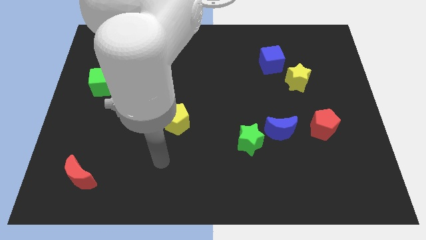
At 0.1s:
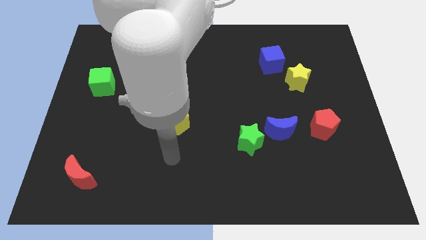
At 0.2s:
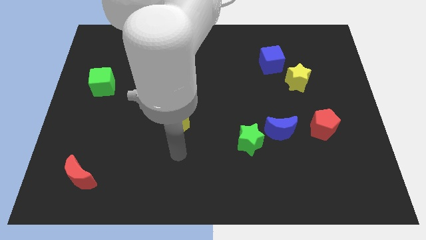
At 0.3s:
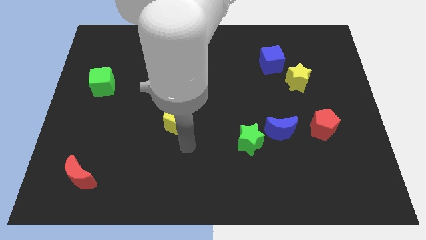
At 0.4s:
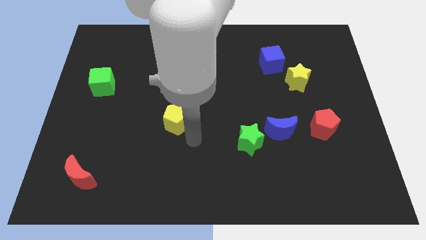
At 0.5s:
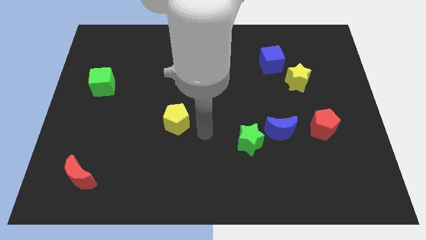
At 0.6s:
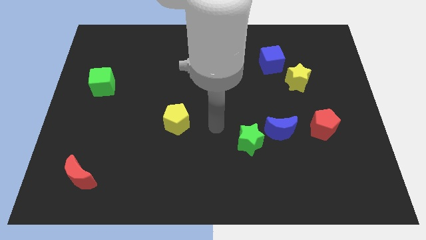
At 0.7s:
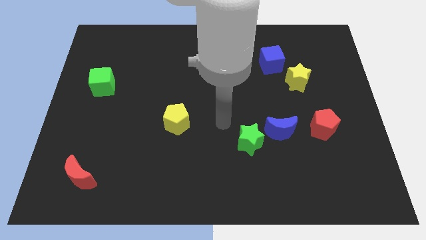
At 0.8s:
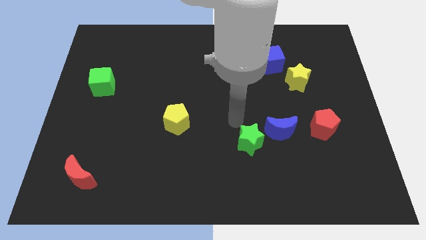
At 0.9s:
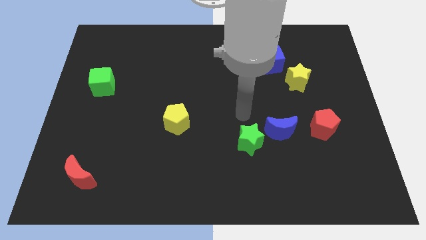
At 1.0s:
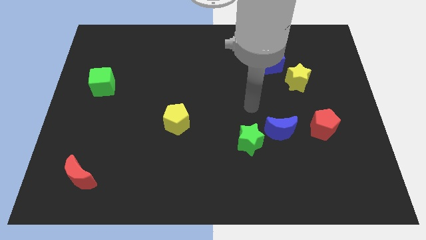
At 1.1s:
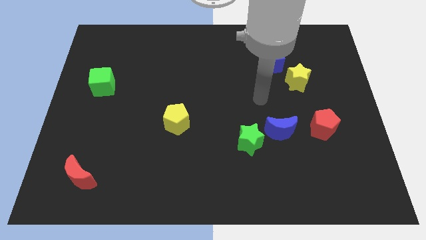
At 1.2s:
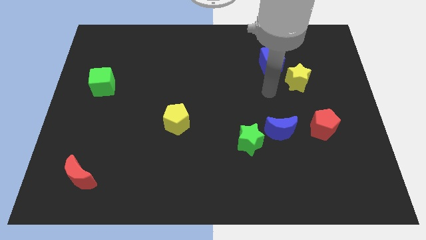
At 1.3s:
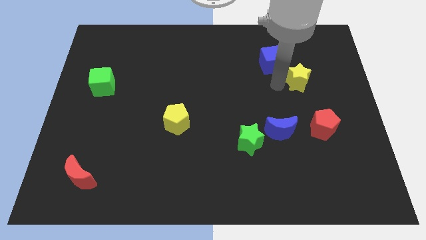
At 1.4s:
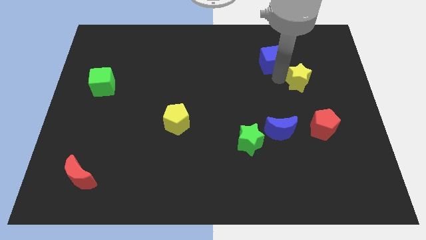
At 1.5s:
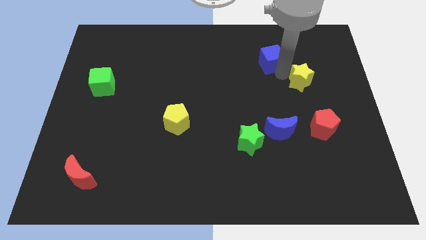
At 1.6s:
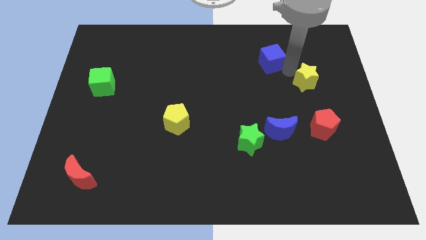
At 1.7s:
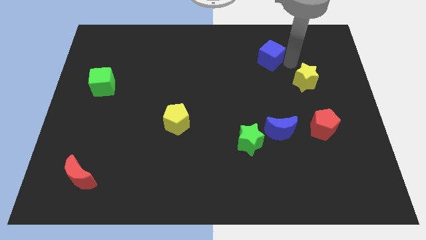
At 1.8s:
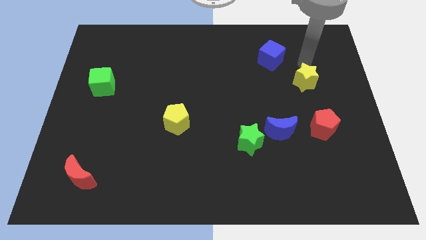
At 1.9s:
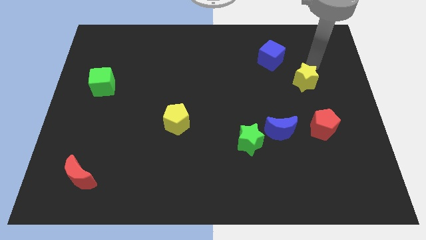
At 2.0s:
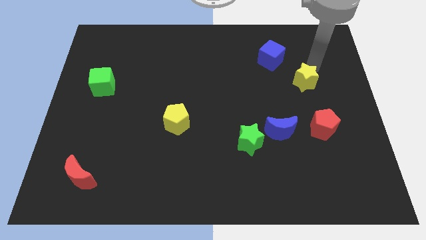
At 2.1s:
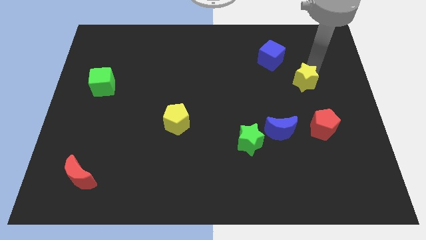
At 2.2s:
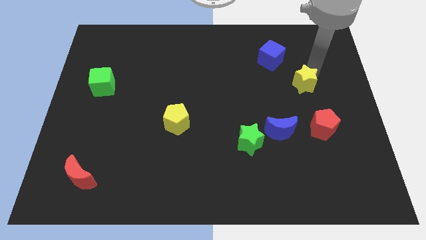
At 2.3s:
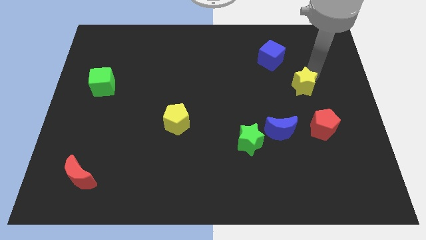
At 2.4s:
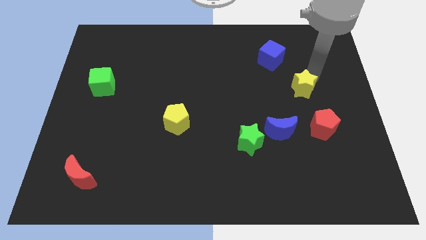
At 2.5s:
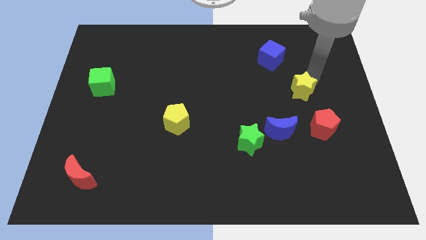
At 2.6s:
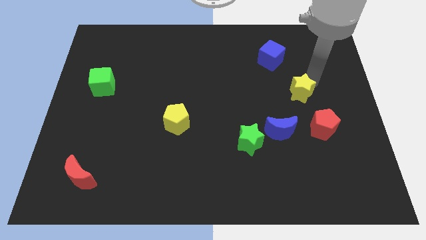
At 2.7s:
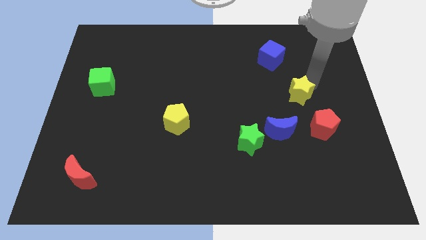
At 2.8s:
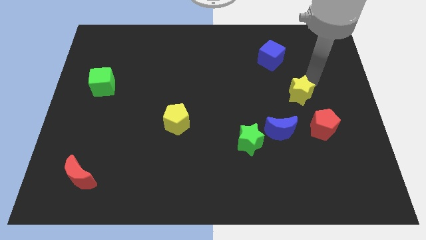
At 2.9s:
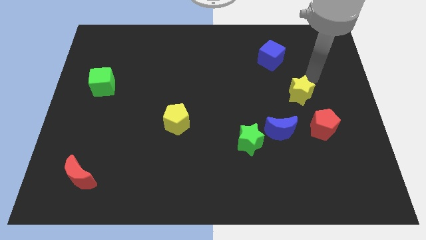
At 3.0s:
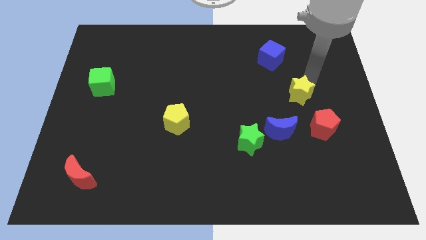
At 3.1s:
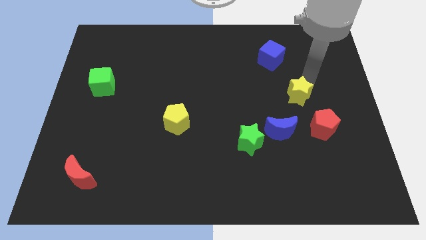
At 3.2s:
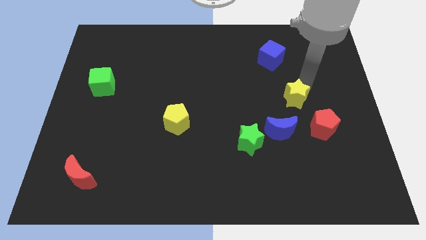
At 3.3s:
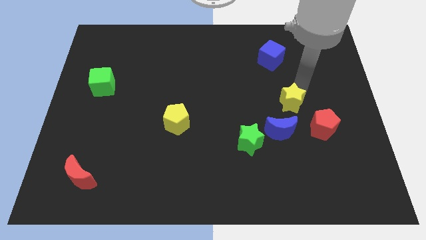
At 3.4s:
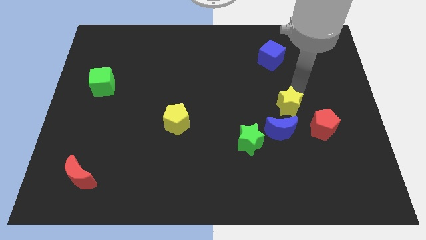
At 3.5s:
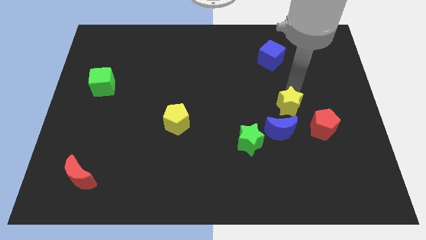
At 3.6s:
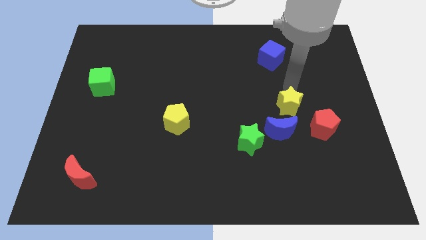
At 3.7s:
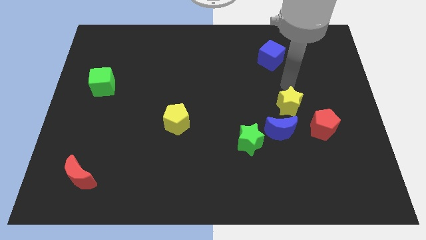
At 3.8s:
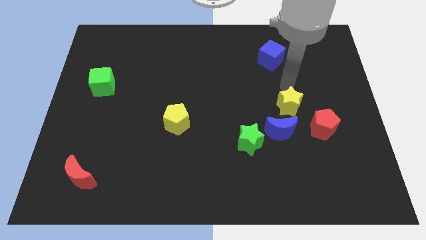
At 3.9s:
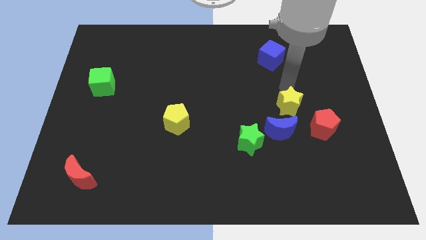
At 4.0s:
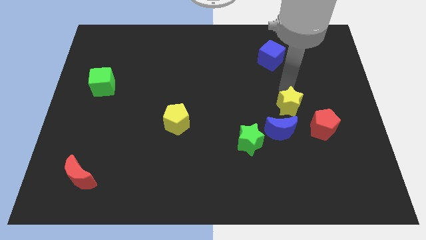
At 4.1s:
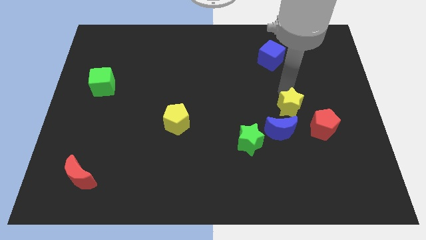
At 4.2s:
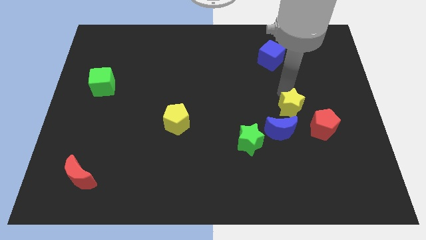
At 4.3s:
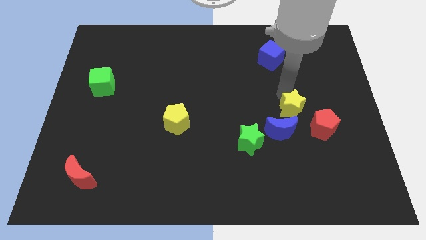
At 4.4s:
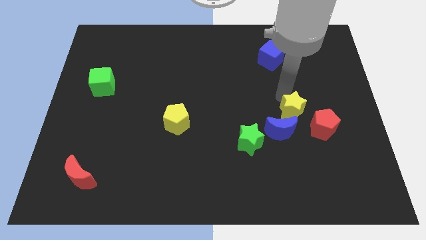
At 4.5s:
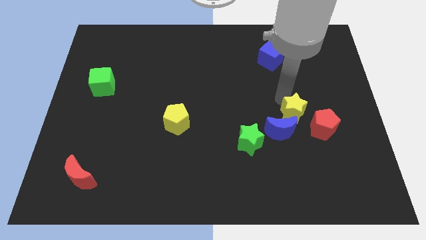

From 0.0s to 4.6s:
move the yellow star to the blue moon

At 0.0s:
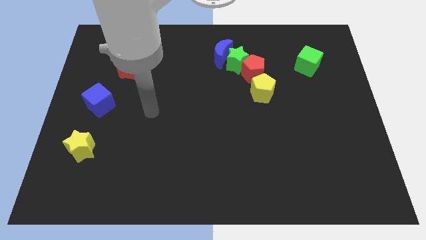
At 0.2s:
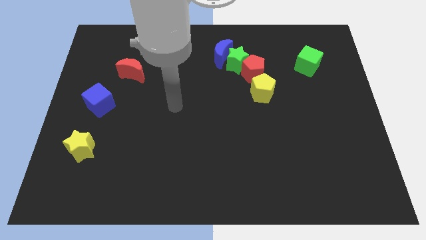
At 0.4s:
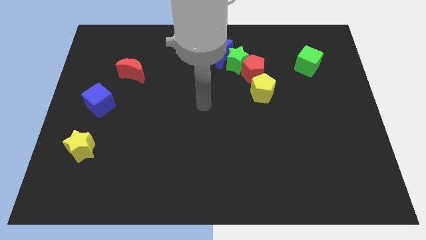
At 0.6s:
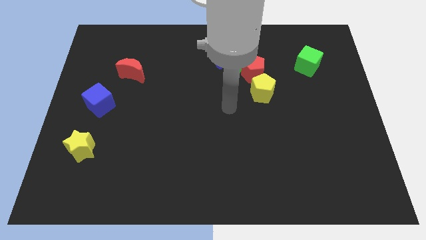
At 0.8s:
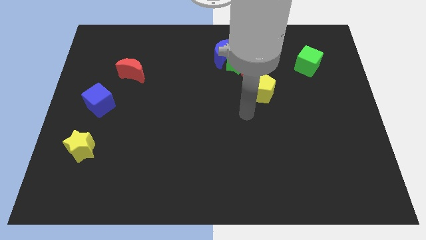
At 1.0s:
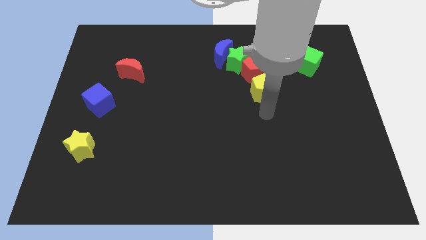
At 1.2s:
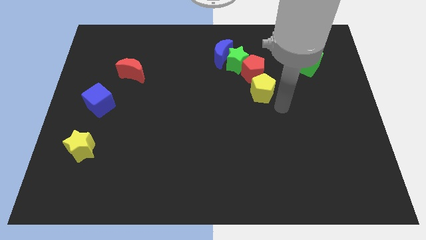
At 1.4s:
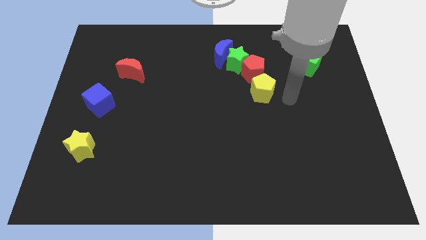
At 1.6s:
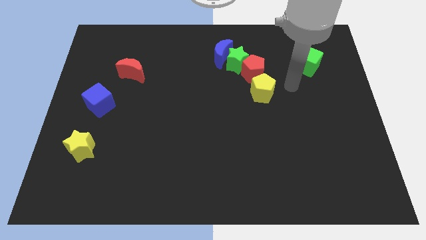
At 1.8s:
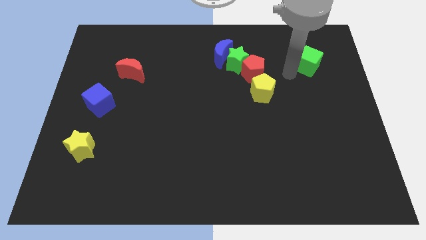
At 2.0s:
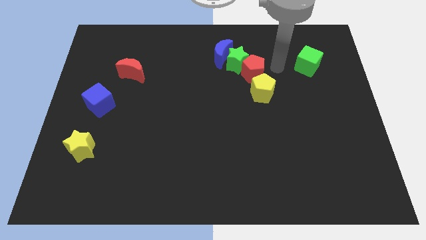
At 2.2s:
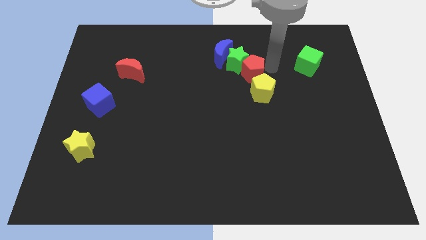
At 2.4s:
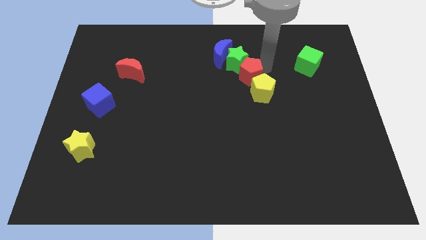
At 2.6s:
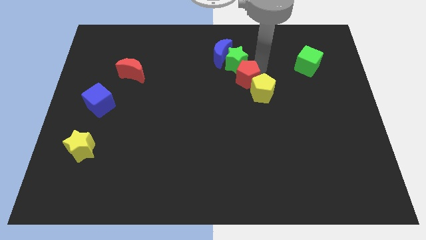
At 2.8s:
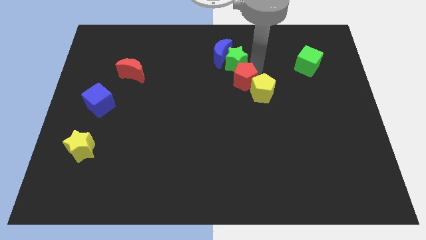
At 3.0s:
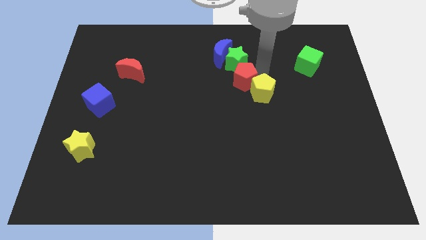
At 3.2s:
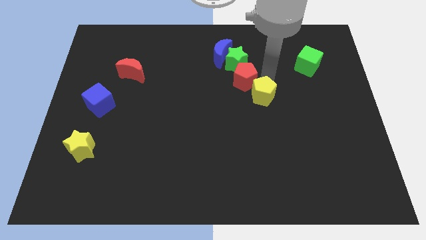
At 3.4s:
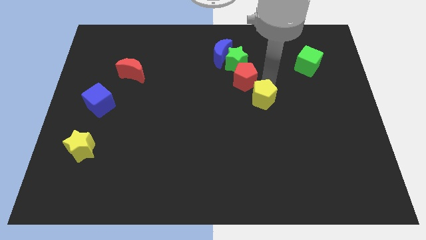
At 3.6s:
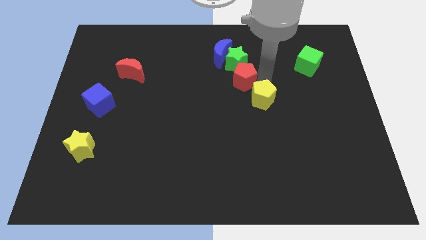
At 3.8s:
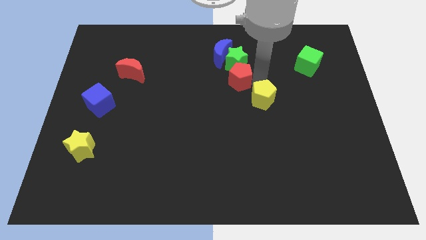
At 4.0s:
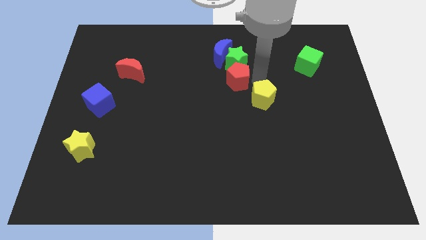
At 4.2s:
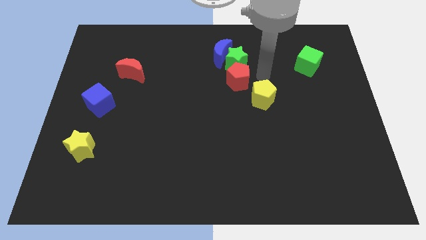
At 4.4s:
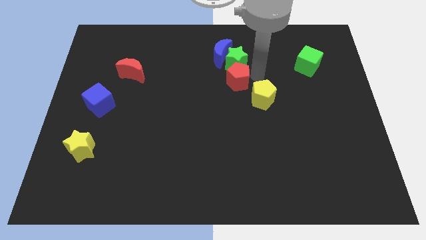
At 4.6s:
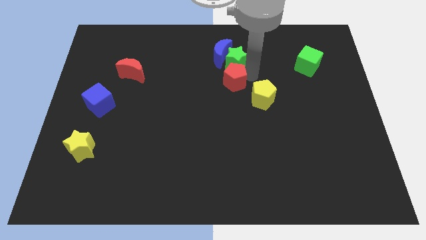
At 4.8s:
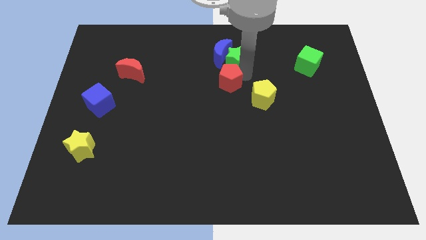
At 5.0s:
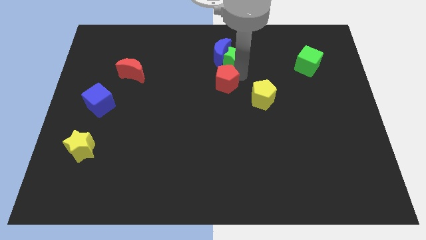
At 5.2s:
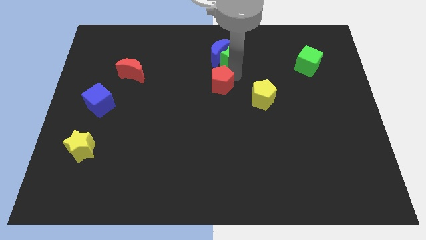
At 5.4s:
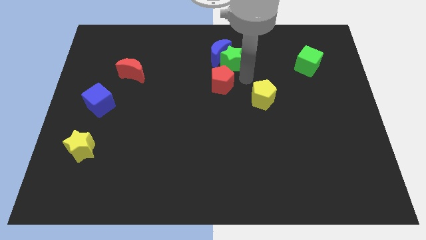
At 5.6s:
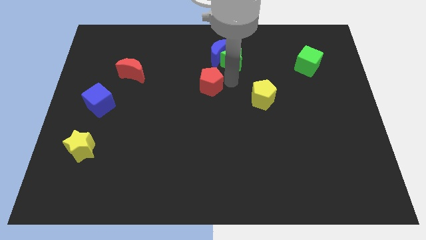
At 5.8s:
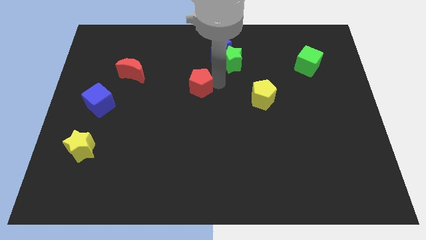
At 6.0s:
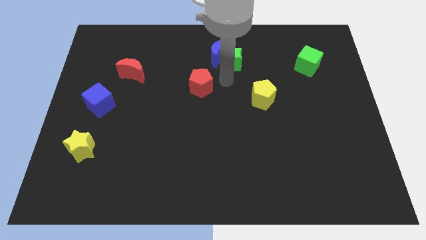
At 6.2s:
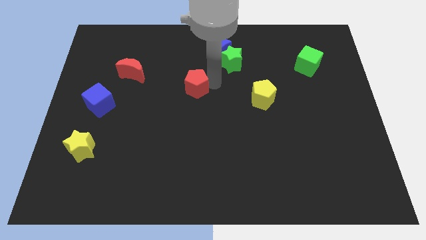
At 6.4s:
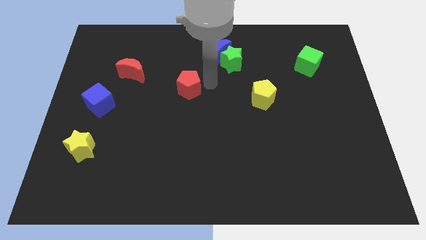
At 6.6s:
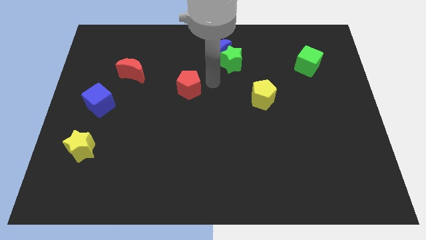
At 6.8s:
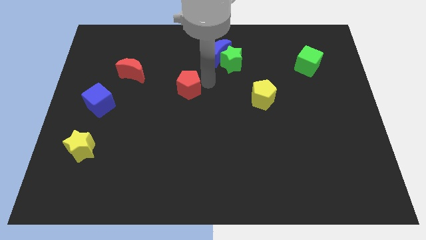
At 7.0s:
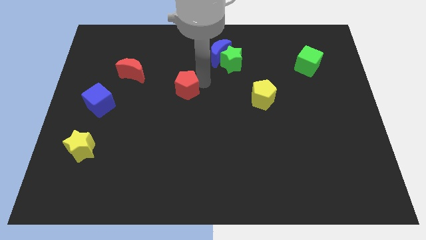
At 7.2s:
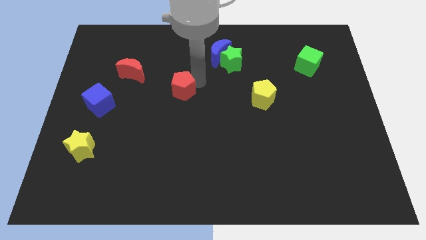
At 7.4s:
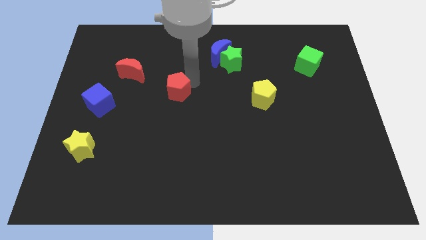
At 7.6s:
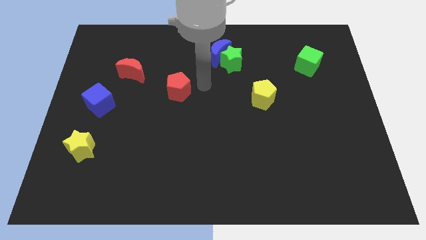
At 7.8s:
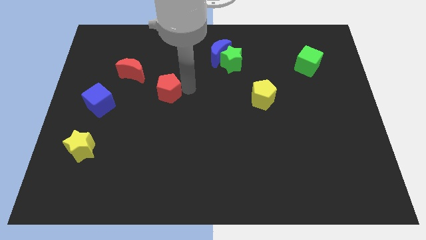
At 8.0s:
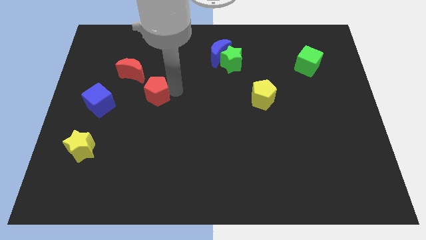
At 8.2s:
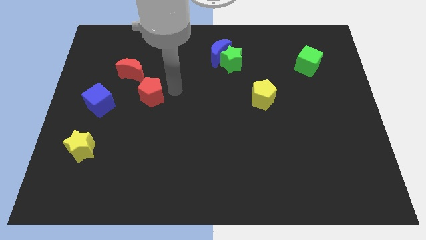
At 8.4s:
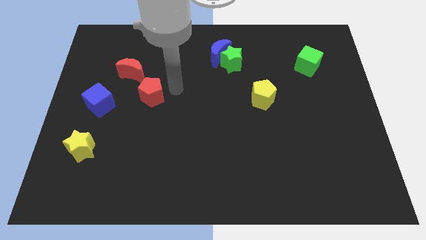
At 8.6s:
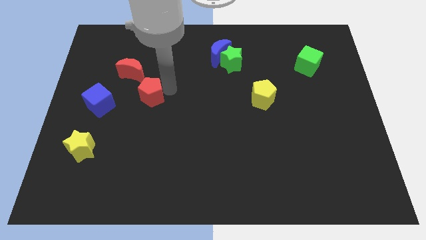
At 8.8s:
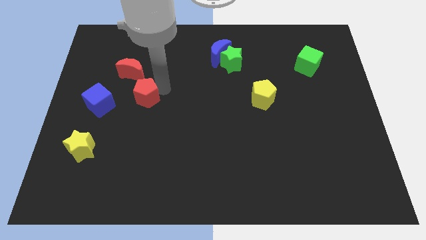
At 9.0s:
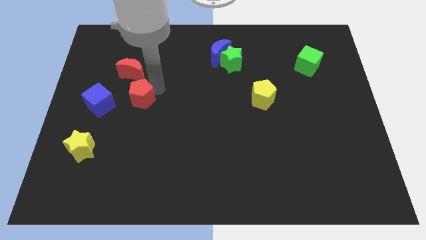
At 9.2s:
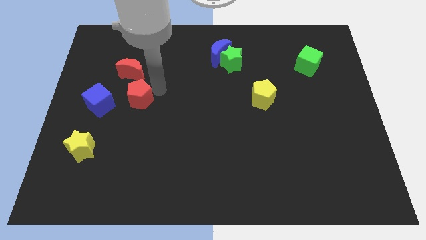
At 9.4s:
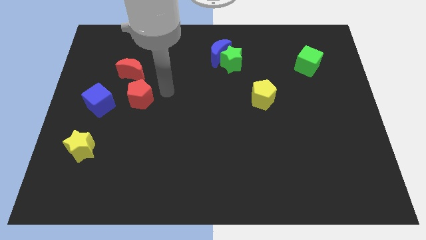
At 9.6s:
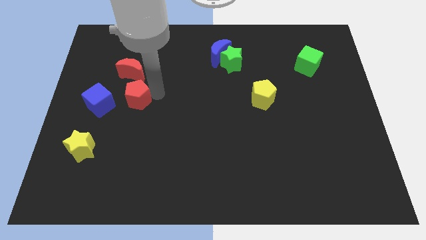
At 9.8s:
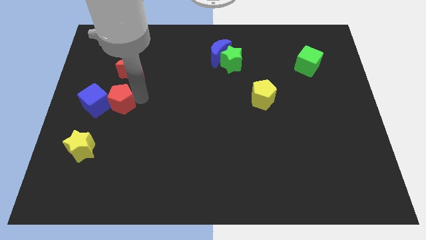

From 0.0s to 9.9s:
slide the red pentagon next to the blue cube
